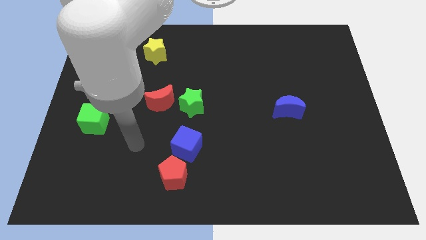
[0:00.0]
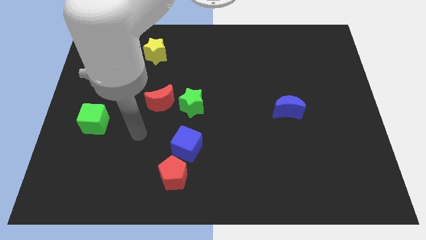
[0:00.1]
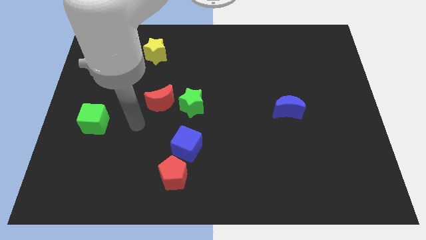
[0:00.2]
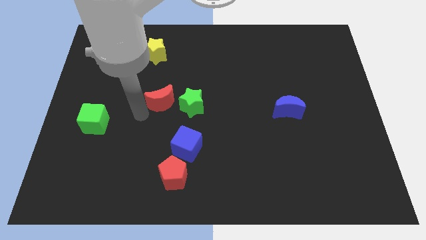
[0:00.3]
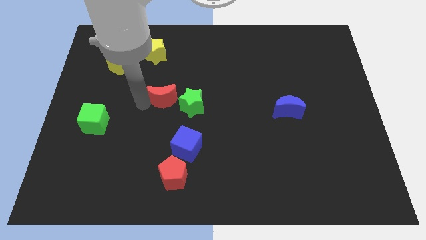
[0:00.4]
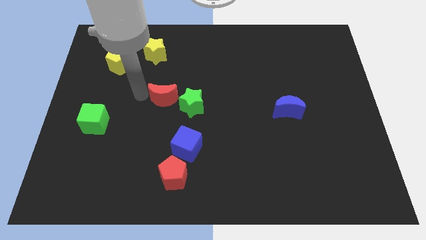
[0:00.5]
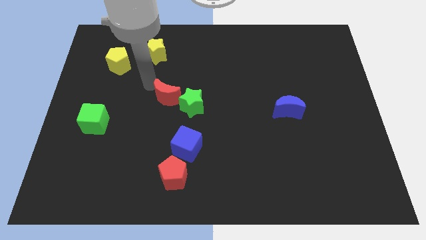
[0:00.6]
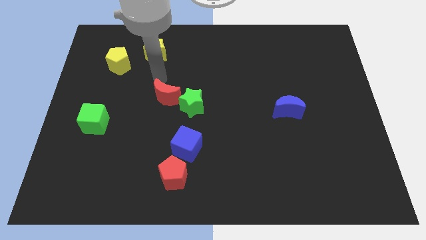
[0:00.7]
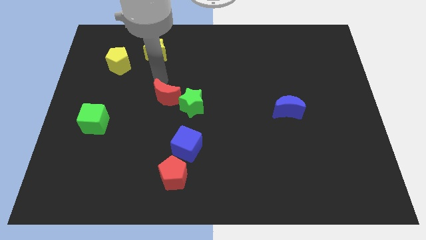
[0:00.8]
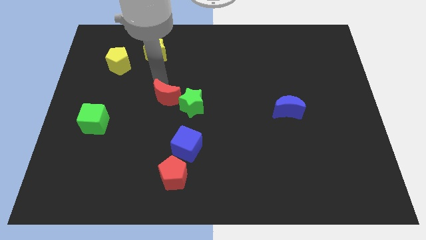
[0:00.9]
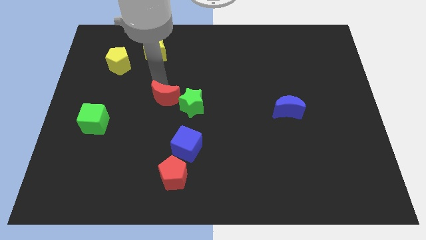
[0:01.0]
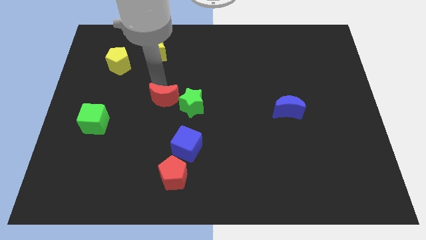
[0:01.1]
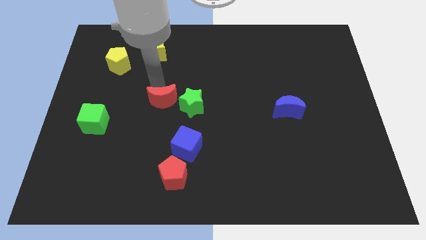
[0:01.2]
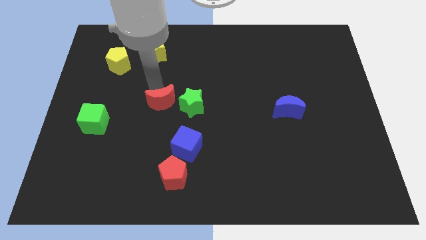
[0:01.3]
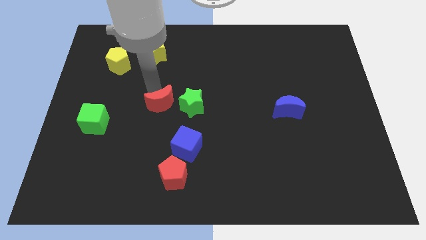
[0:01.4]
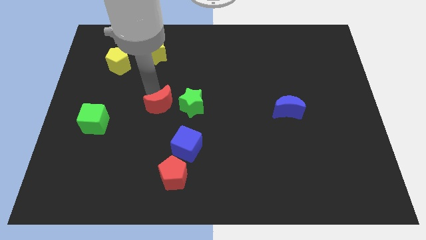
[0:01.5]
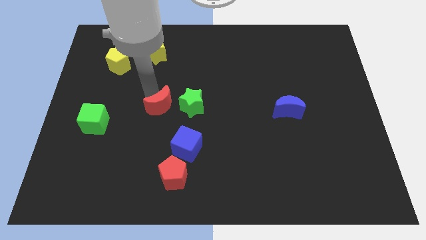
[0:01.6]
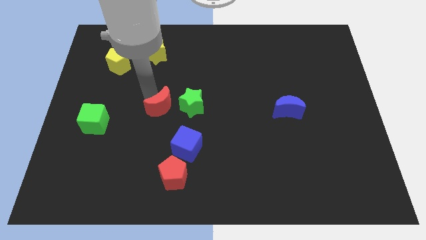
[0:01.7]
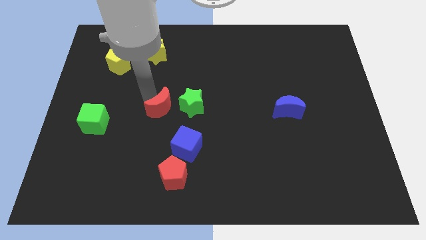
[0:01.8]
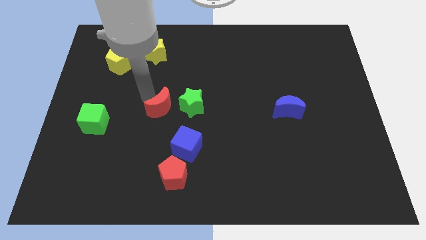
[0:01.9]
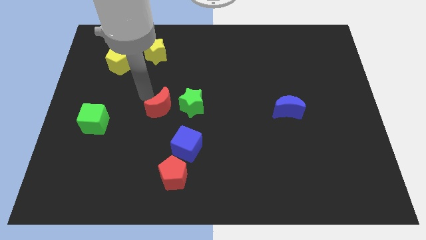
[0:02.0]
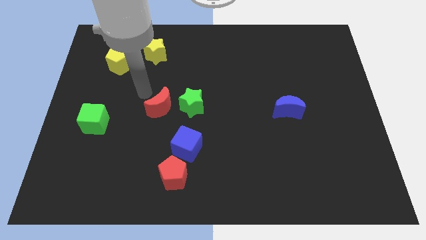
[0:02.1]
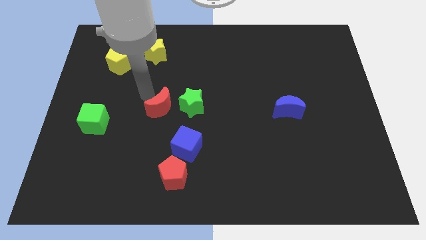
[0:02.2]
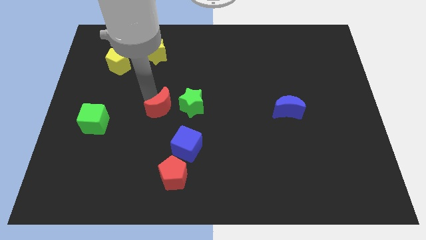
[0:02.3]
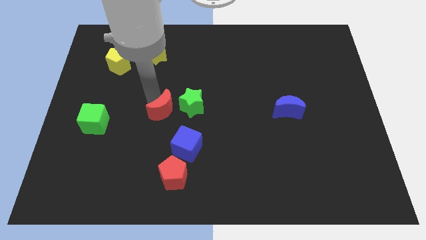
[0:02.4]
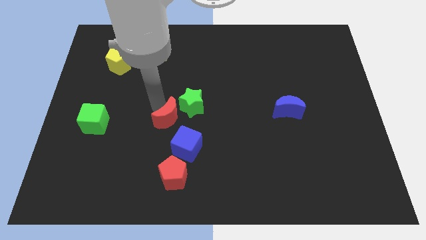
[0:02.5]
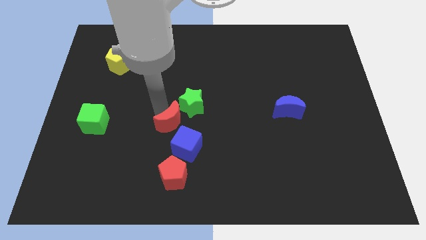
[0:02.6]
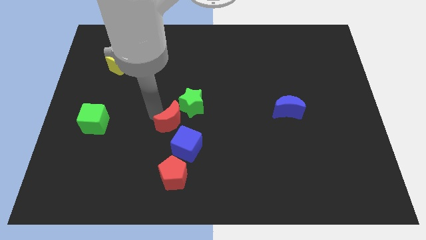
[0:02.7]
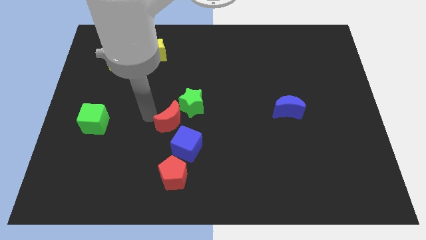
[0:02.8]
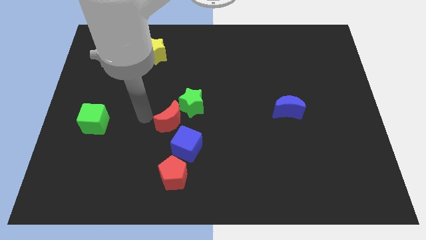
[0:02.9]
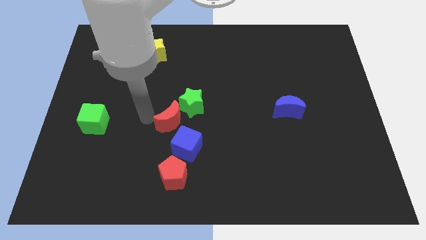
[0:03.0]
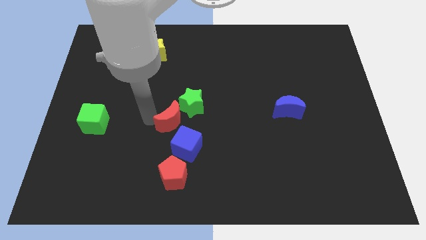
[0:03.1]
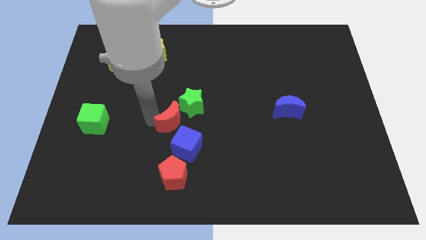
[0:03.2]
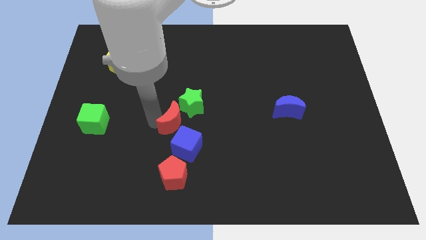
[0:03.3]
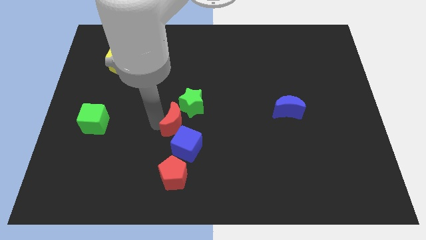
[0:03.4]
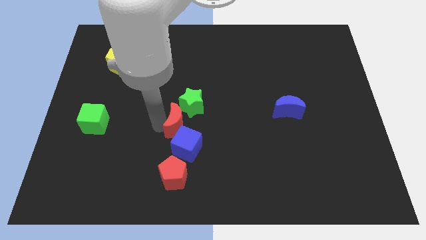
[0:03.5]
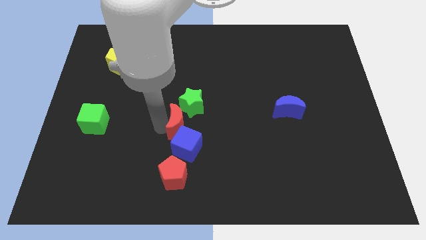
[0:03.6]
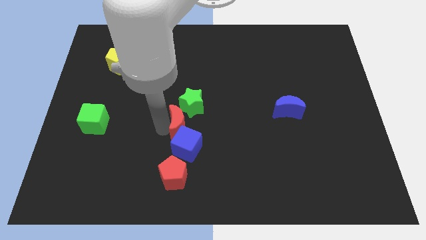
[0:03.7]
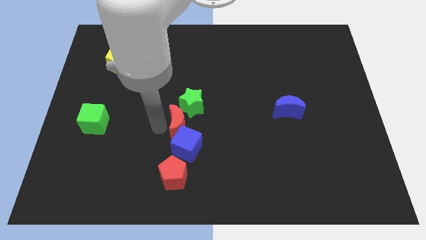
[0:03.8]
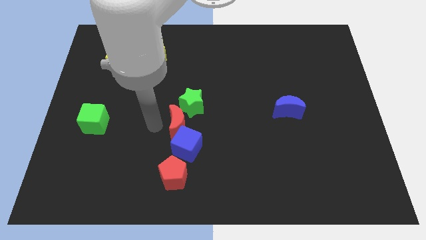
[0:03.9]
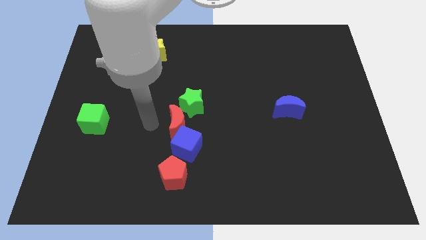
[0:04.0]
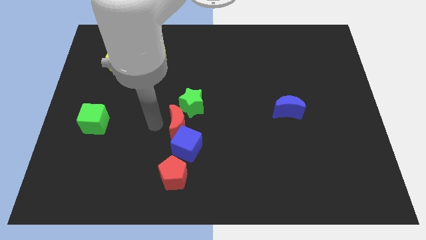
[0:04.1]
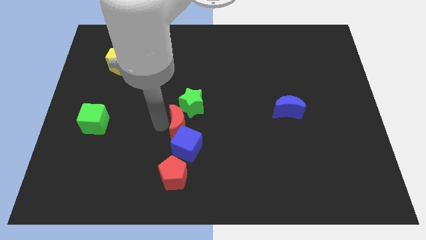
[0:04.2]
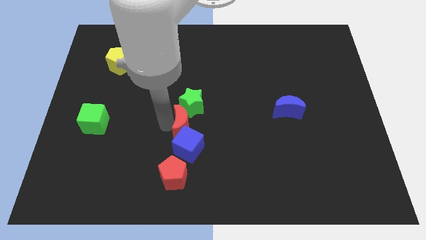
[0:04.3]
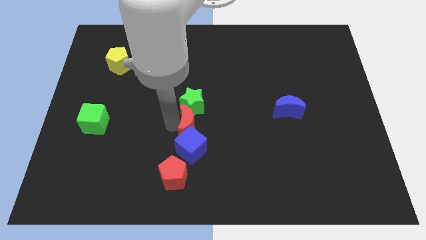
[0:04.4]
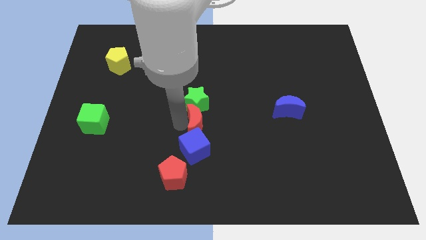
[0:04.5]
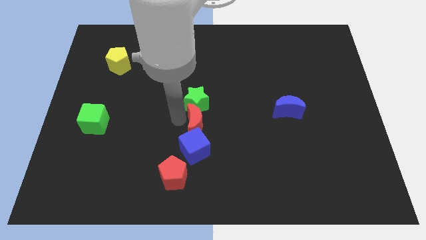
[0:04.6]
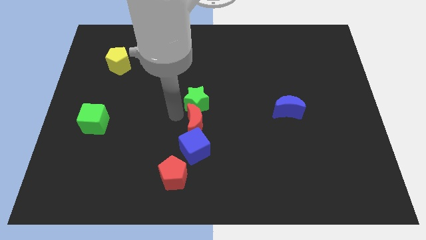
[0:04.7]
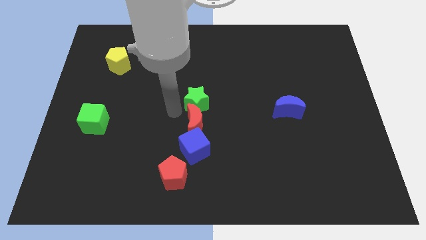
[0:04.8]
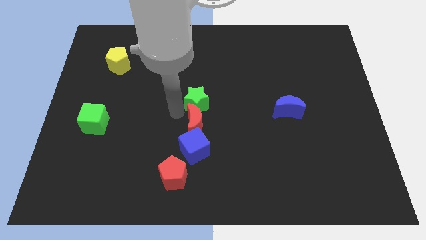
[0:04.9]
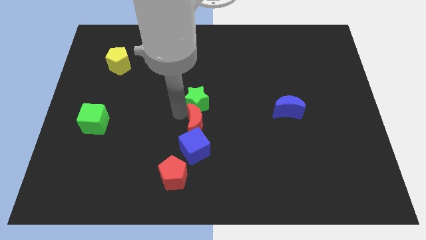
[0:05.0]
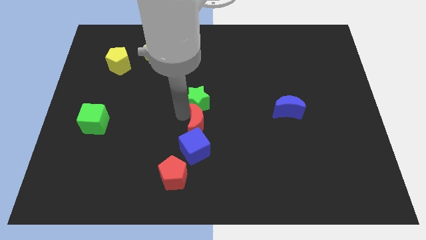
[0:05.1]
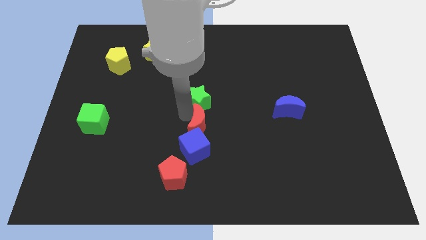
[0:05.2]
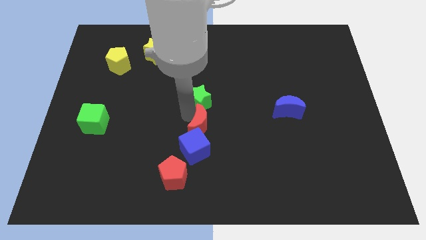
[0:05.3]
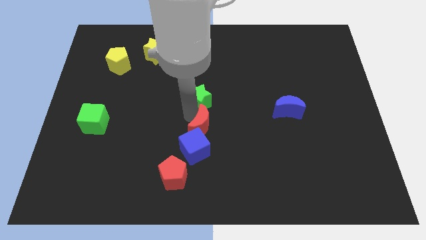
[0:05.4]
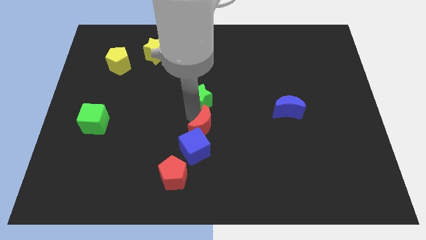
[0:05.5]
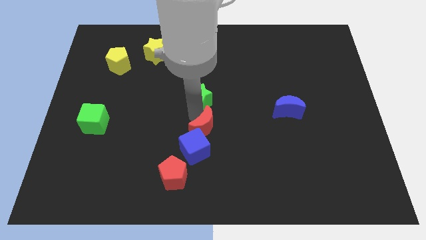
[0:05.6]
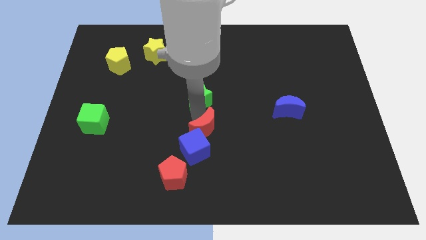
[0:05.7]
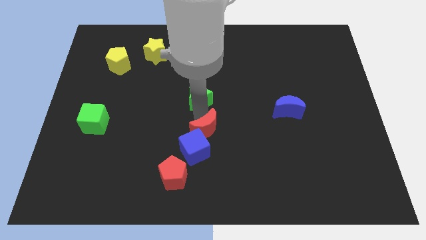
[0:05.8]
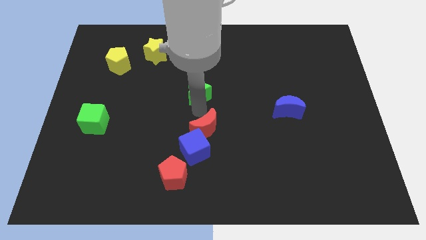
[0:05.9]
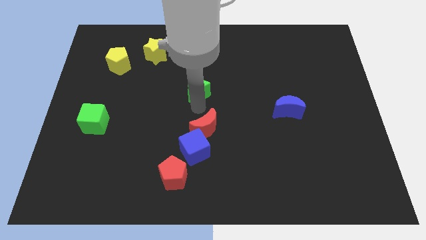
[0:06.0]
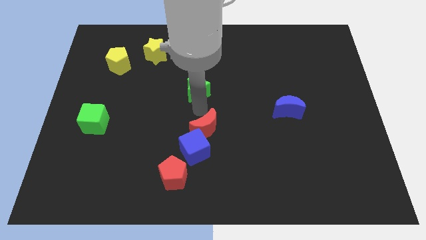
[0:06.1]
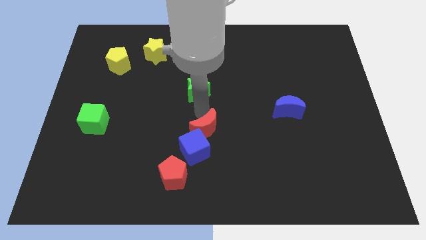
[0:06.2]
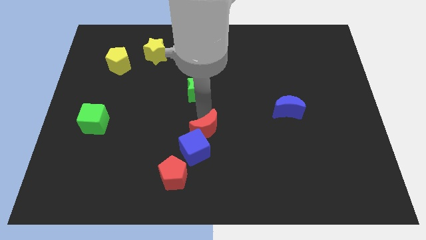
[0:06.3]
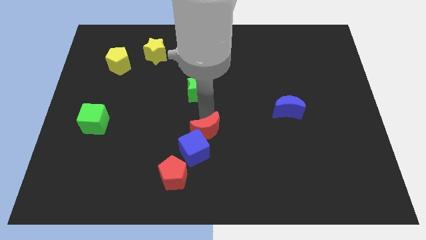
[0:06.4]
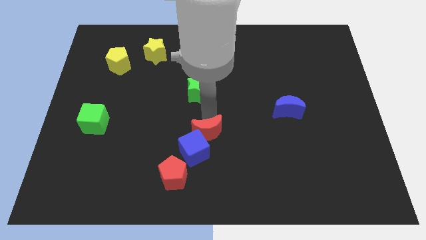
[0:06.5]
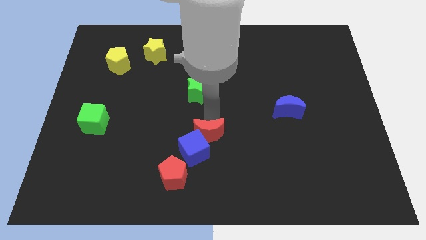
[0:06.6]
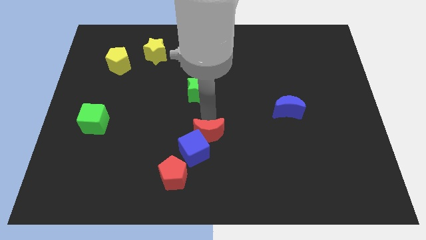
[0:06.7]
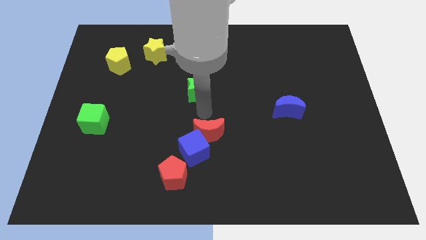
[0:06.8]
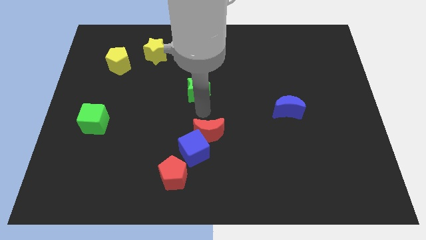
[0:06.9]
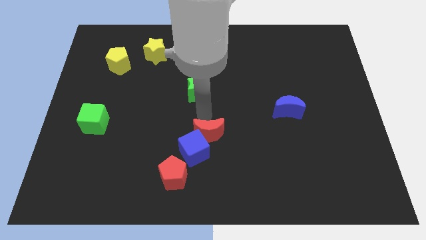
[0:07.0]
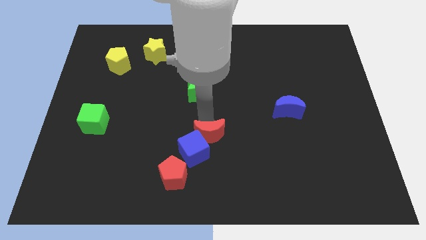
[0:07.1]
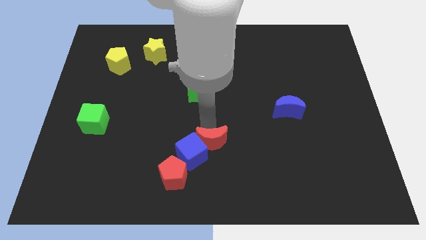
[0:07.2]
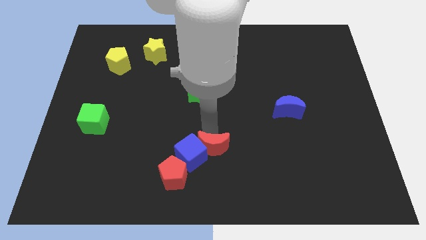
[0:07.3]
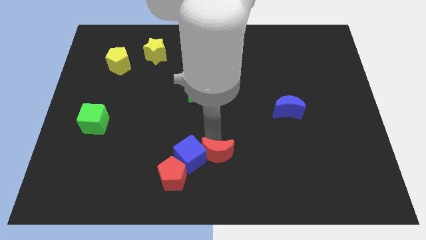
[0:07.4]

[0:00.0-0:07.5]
slide the red moon to the bottom
